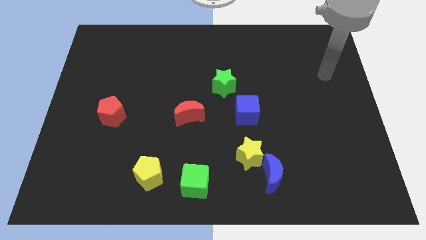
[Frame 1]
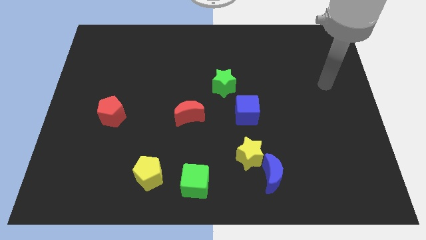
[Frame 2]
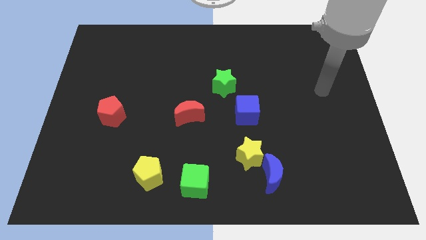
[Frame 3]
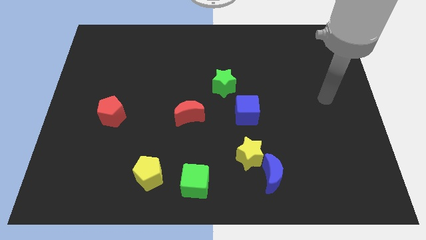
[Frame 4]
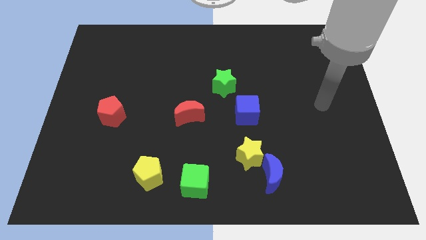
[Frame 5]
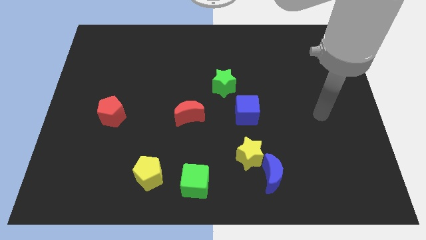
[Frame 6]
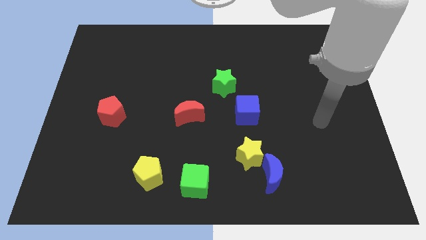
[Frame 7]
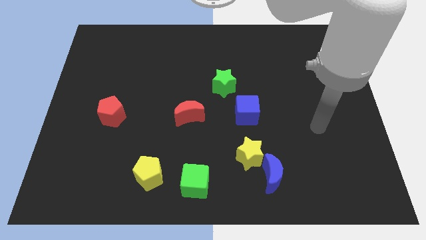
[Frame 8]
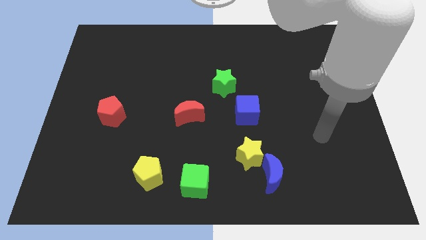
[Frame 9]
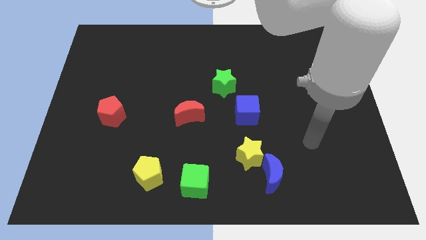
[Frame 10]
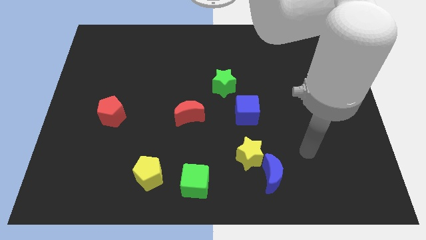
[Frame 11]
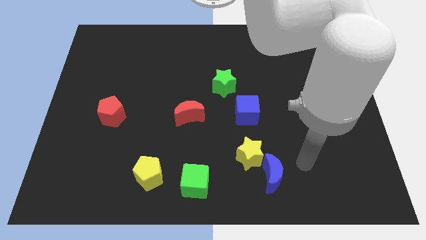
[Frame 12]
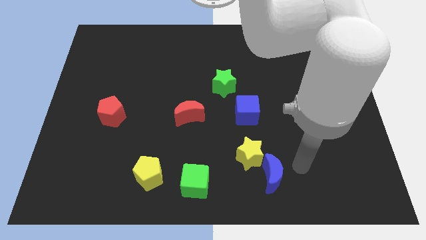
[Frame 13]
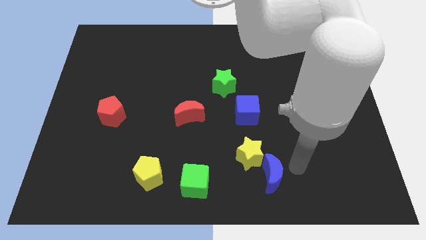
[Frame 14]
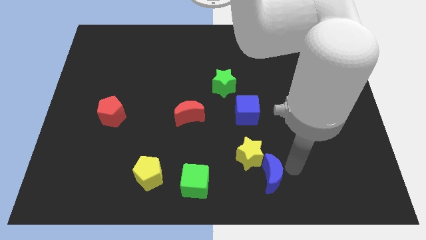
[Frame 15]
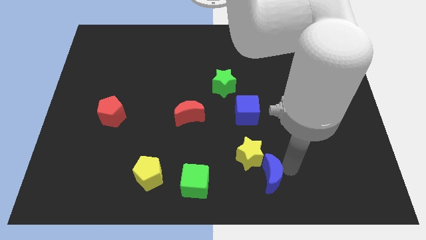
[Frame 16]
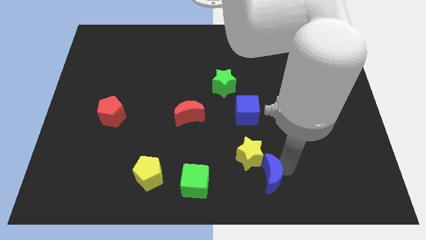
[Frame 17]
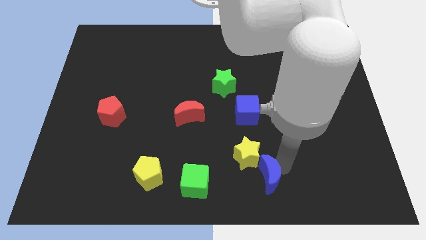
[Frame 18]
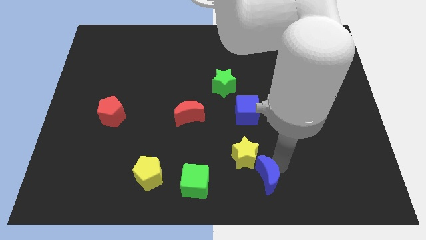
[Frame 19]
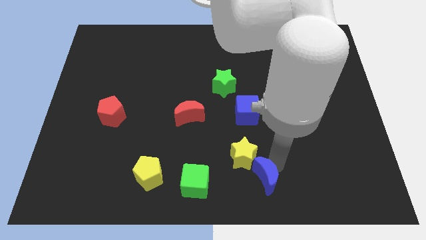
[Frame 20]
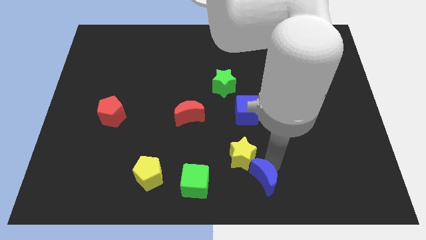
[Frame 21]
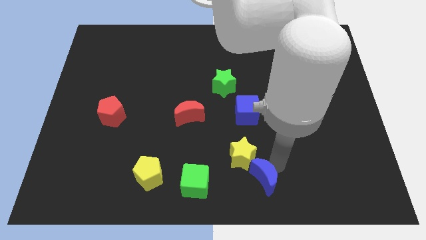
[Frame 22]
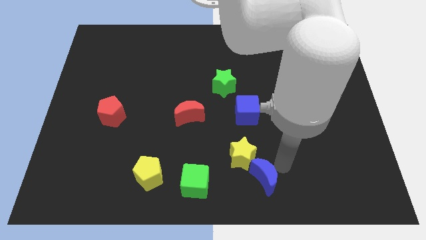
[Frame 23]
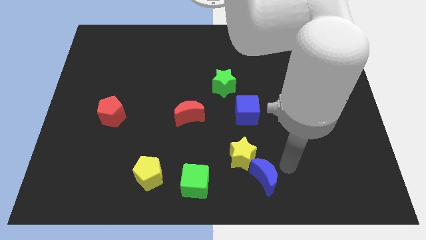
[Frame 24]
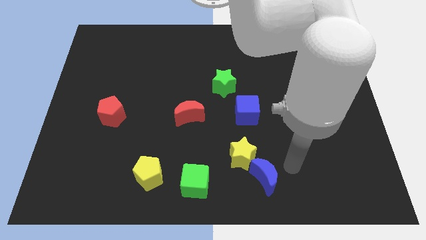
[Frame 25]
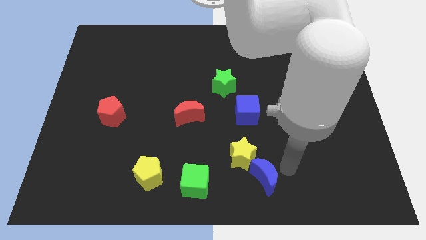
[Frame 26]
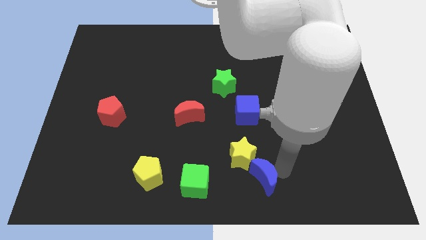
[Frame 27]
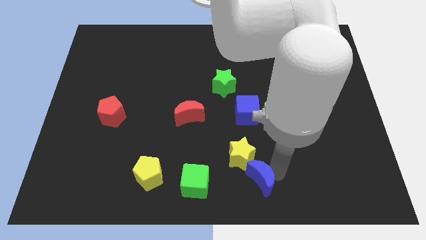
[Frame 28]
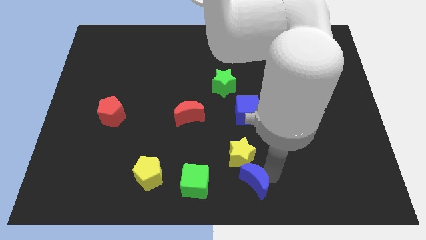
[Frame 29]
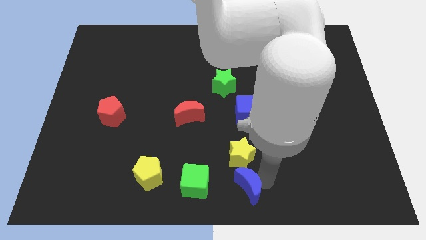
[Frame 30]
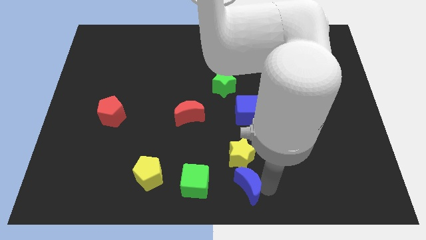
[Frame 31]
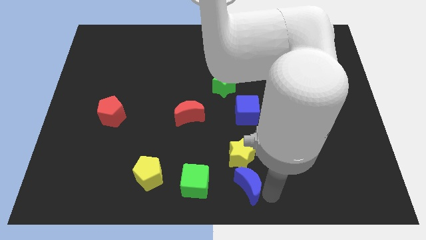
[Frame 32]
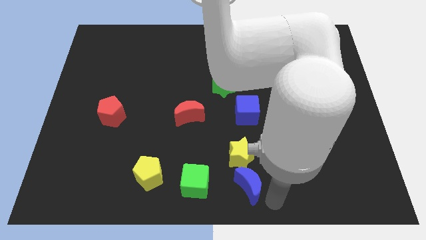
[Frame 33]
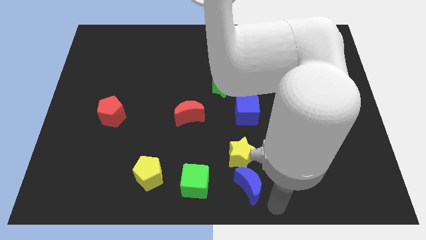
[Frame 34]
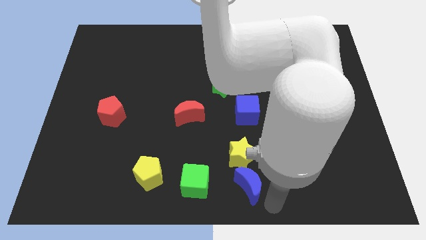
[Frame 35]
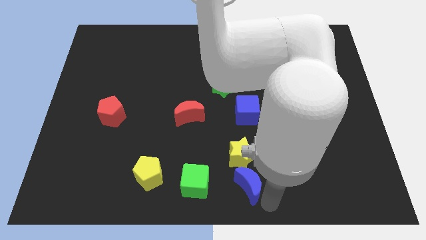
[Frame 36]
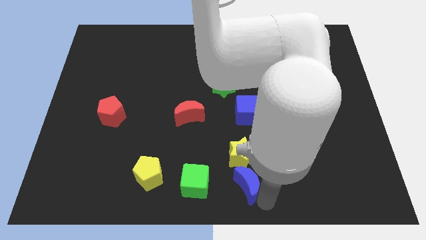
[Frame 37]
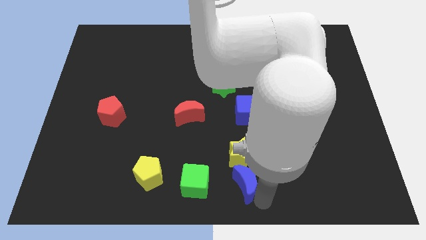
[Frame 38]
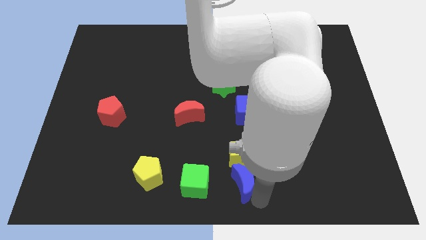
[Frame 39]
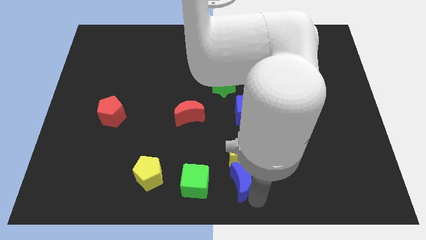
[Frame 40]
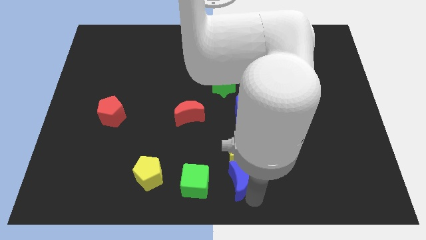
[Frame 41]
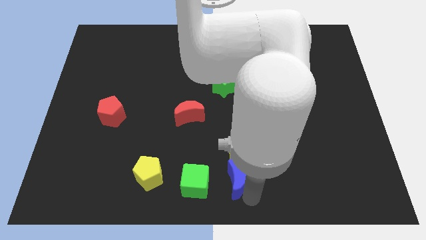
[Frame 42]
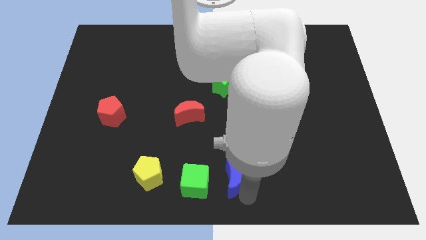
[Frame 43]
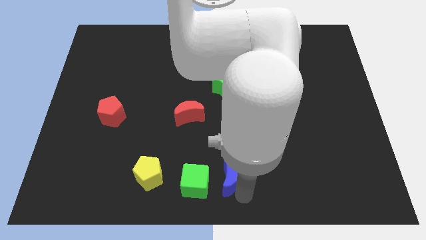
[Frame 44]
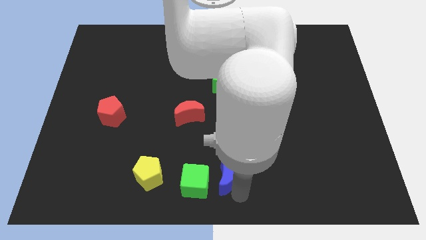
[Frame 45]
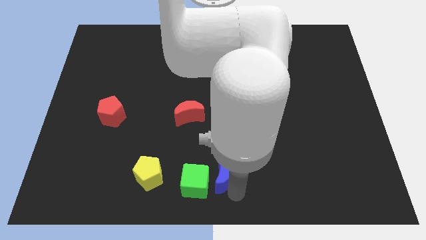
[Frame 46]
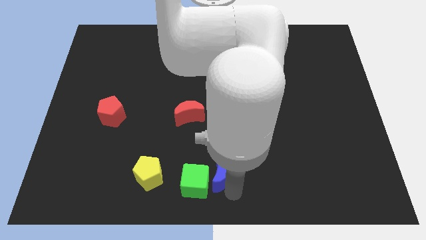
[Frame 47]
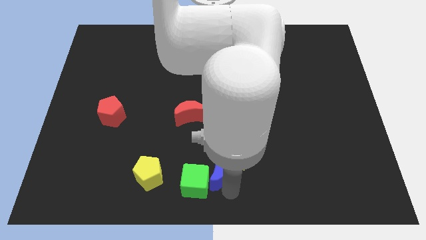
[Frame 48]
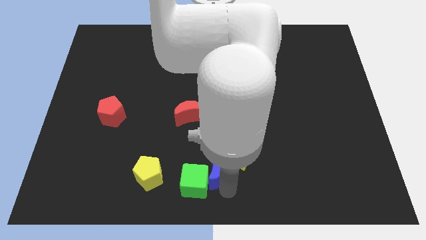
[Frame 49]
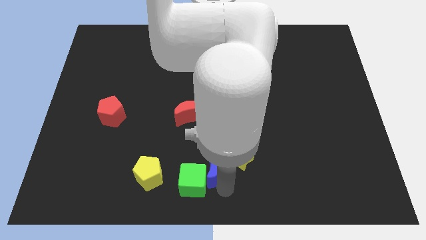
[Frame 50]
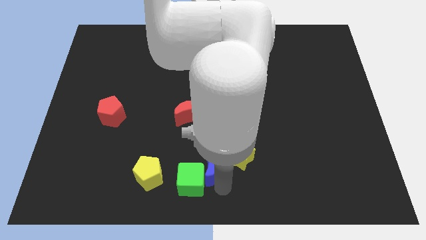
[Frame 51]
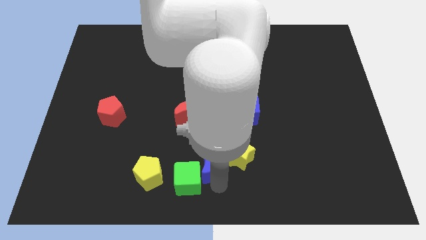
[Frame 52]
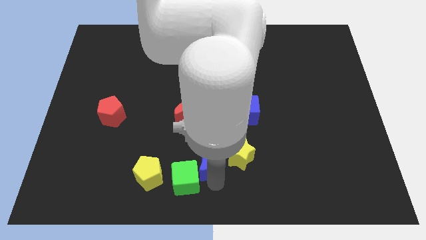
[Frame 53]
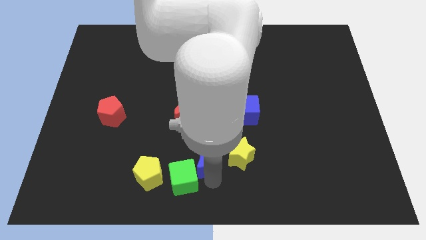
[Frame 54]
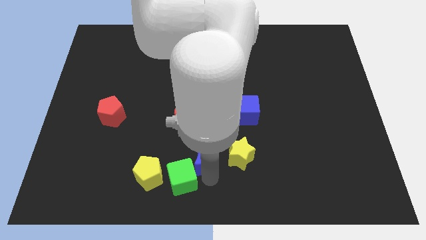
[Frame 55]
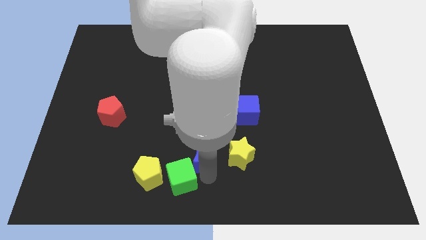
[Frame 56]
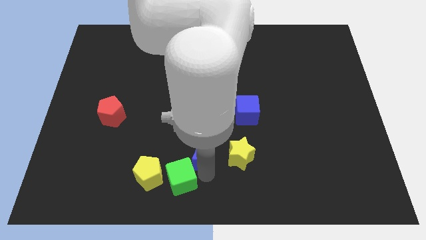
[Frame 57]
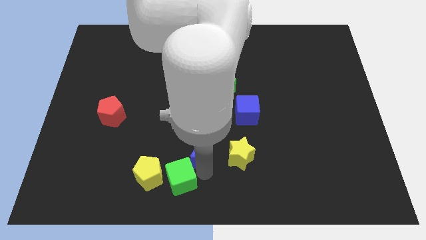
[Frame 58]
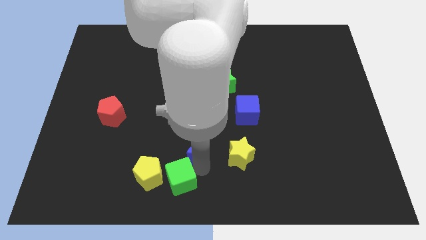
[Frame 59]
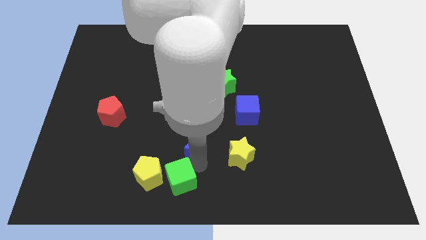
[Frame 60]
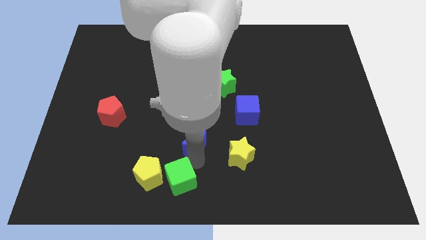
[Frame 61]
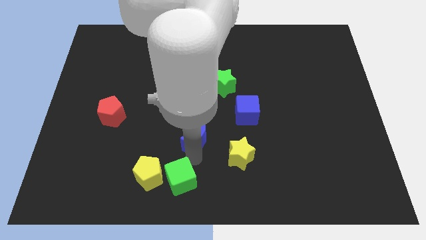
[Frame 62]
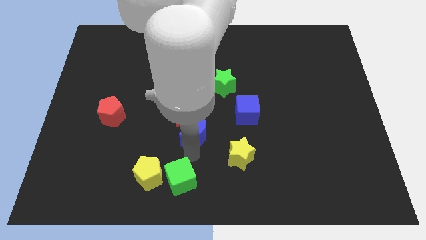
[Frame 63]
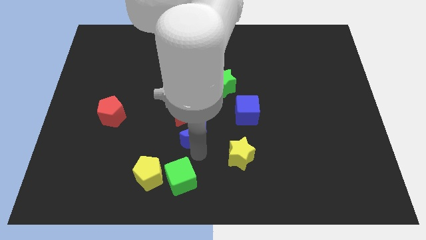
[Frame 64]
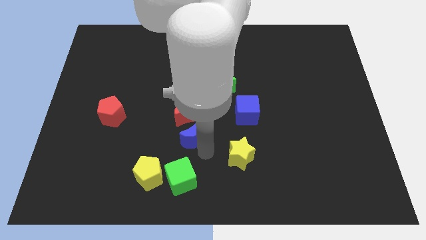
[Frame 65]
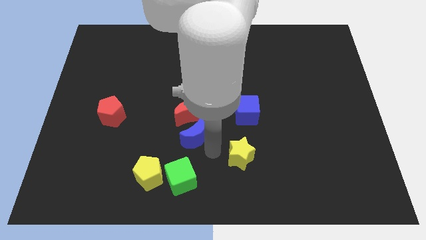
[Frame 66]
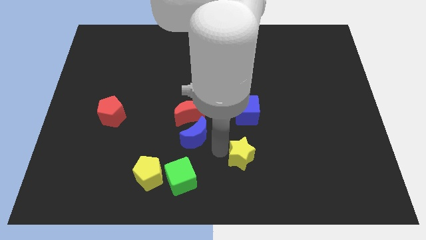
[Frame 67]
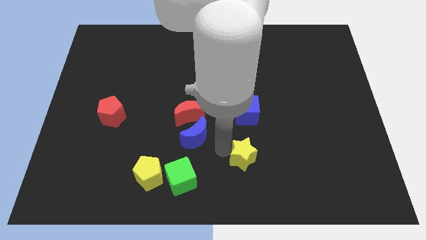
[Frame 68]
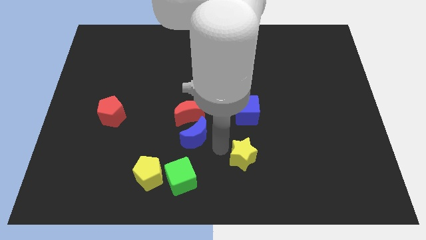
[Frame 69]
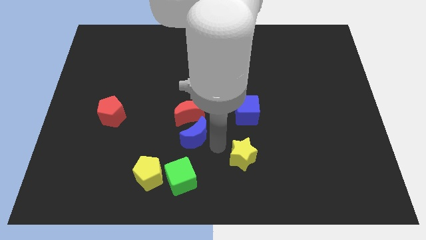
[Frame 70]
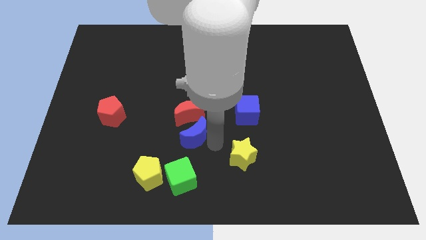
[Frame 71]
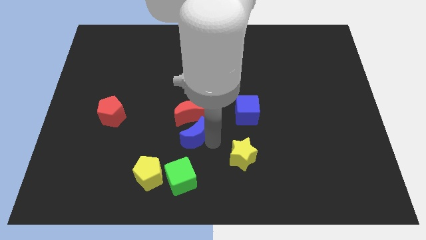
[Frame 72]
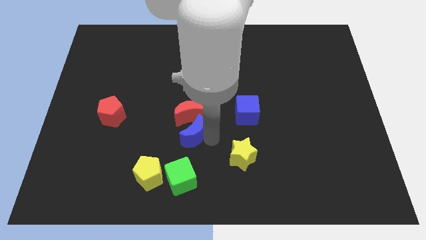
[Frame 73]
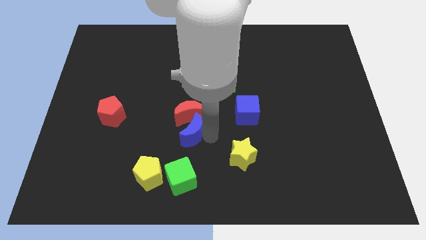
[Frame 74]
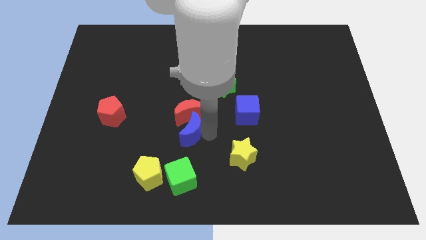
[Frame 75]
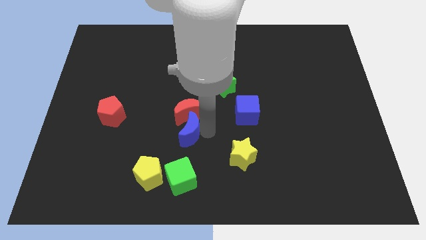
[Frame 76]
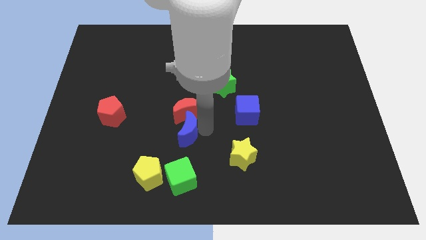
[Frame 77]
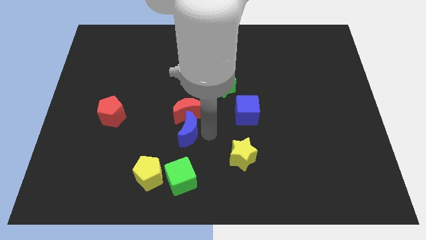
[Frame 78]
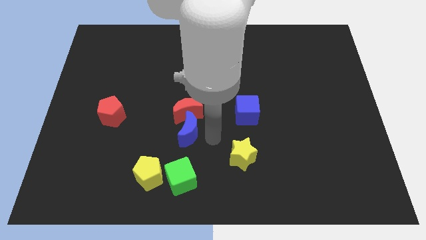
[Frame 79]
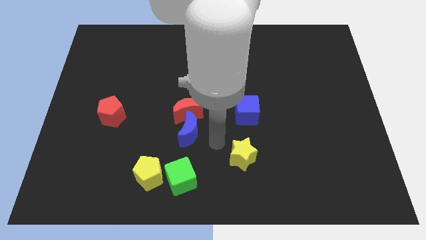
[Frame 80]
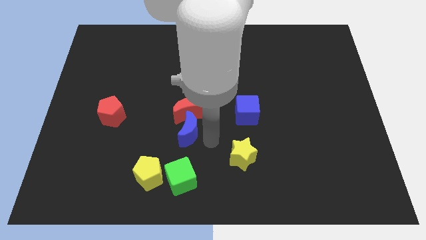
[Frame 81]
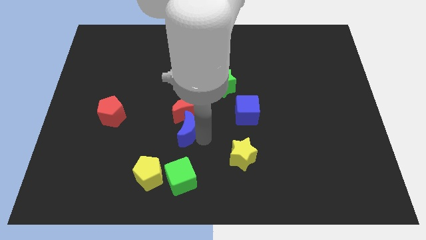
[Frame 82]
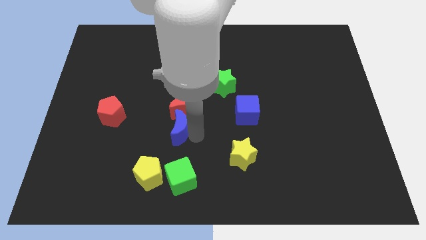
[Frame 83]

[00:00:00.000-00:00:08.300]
push the blue moon up and left
